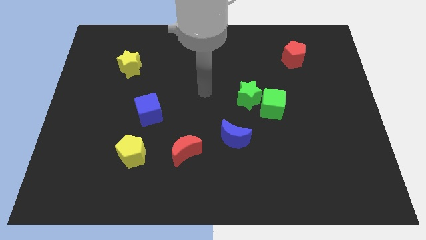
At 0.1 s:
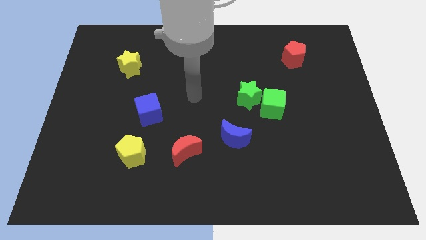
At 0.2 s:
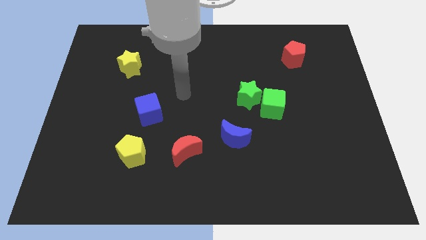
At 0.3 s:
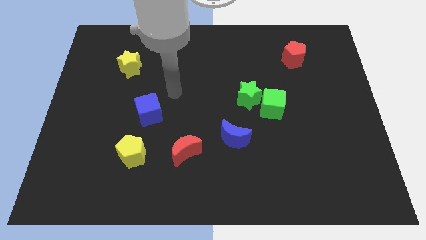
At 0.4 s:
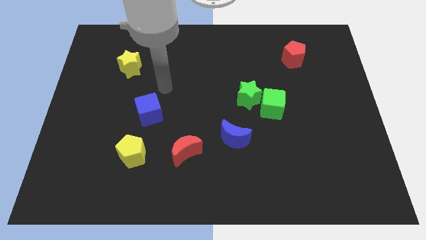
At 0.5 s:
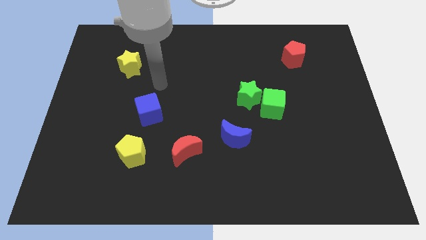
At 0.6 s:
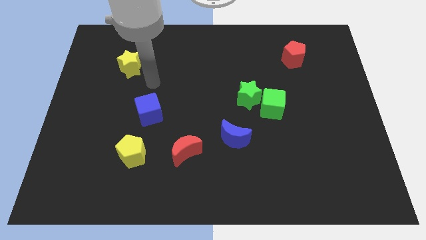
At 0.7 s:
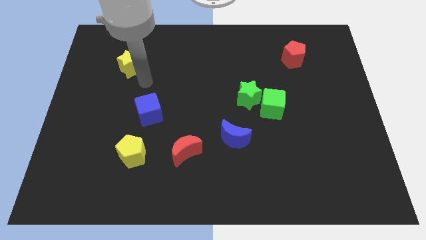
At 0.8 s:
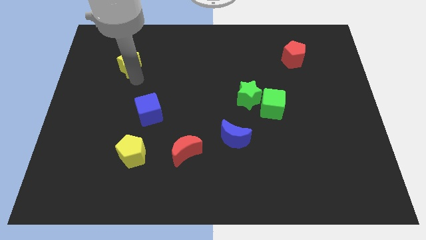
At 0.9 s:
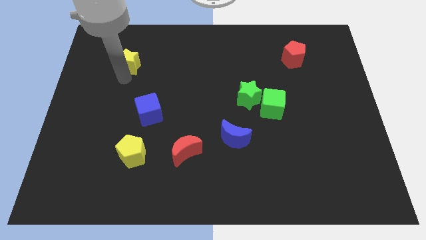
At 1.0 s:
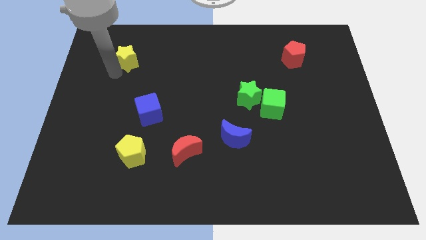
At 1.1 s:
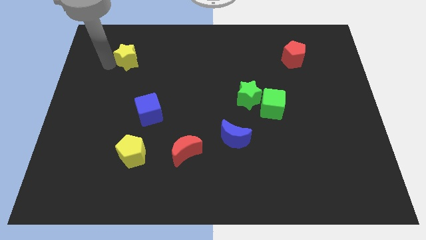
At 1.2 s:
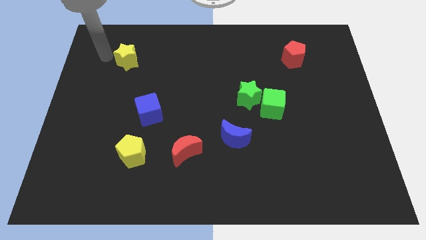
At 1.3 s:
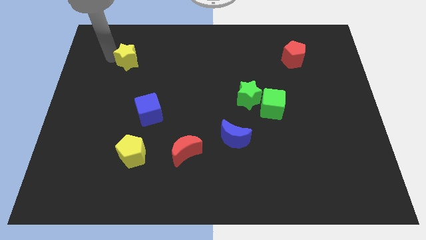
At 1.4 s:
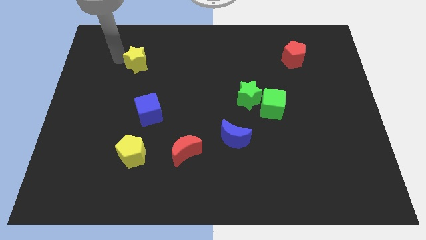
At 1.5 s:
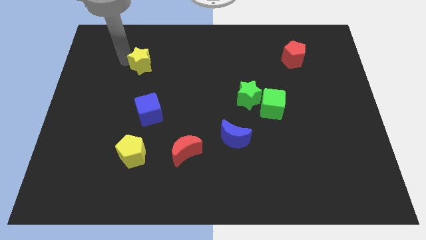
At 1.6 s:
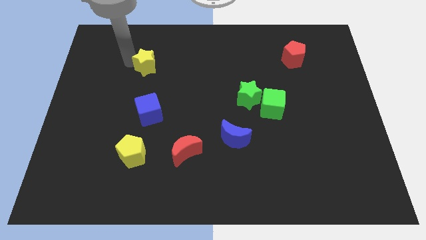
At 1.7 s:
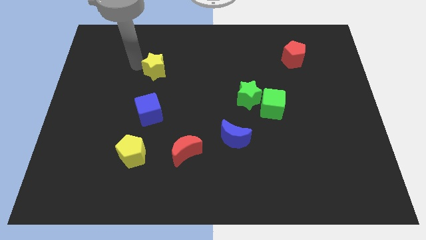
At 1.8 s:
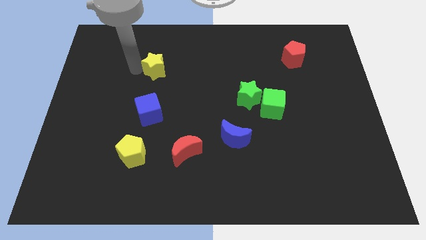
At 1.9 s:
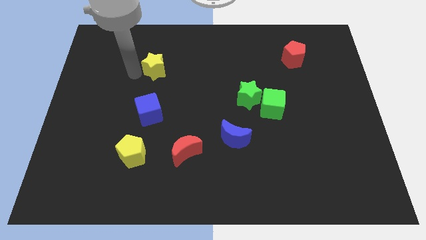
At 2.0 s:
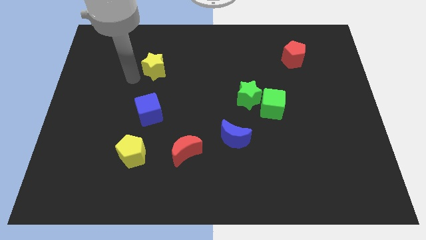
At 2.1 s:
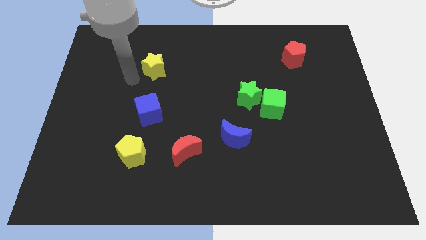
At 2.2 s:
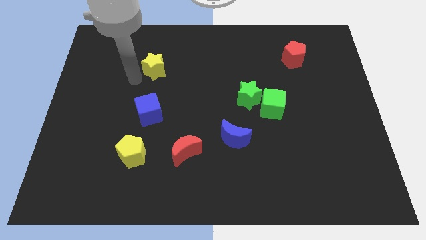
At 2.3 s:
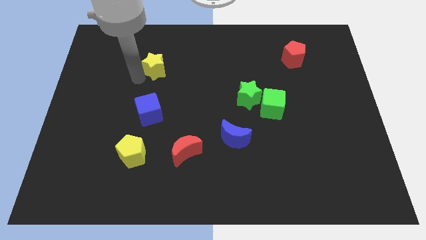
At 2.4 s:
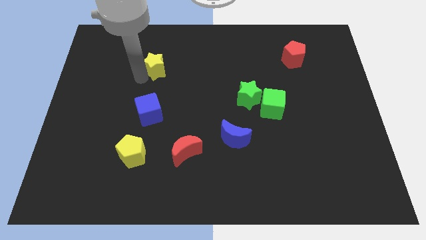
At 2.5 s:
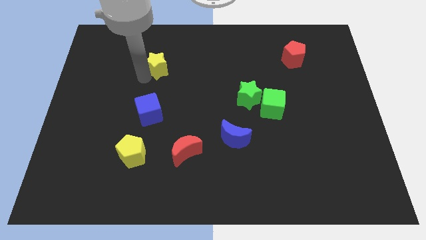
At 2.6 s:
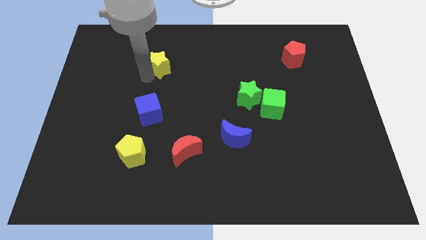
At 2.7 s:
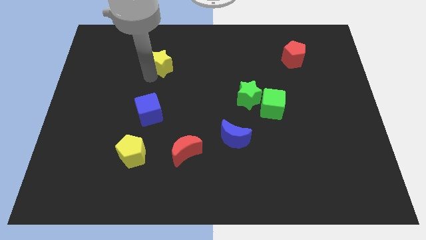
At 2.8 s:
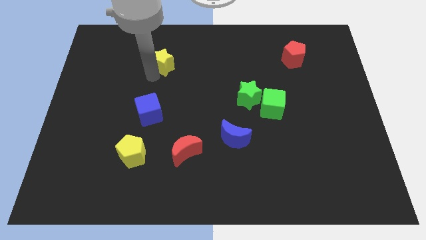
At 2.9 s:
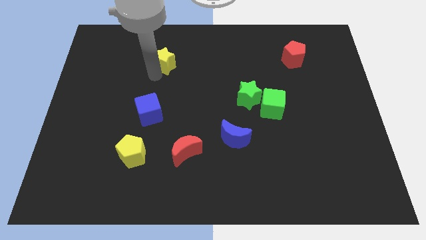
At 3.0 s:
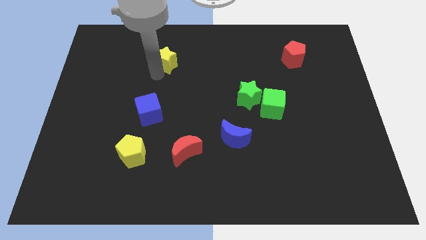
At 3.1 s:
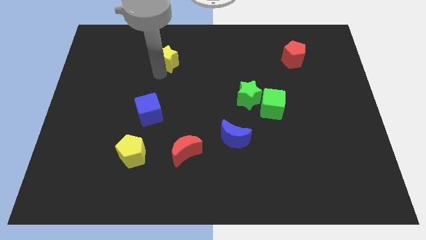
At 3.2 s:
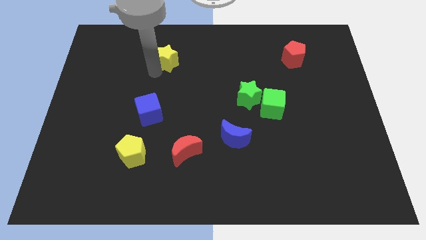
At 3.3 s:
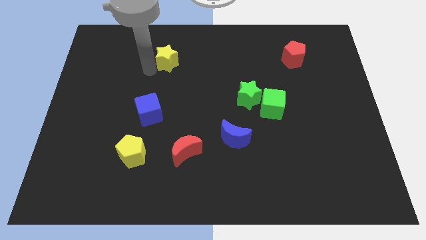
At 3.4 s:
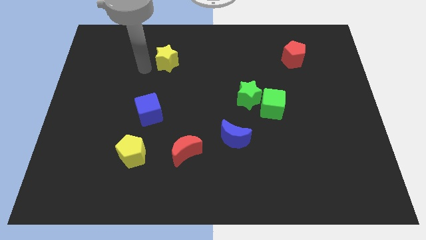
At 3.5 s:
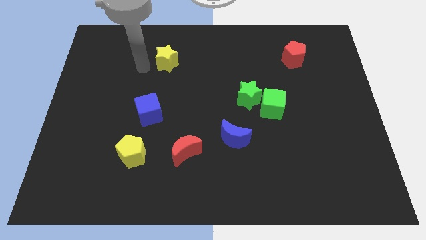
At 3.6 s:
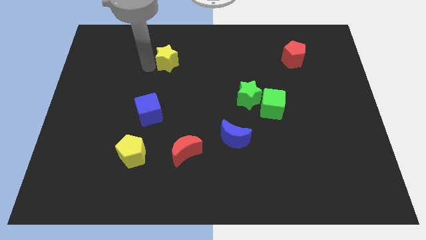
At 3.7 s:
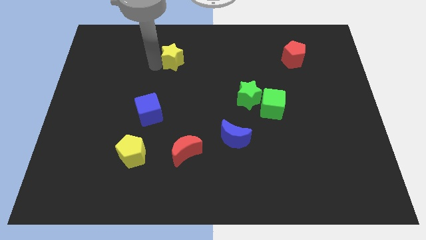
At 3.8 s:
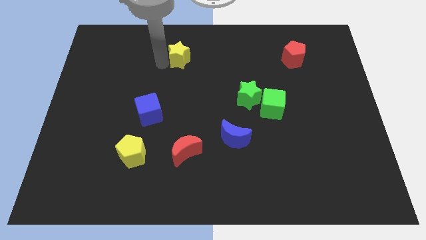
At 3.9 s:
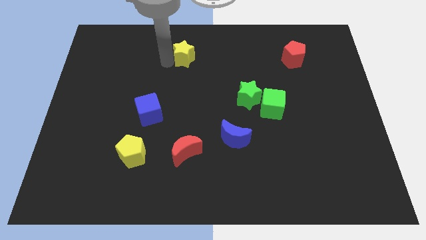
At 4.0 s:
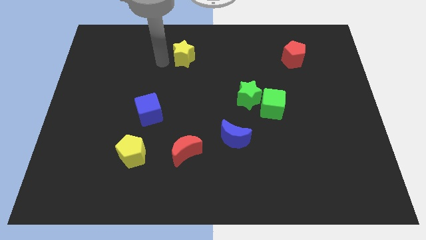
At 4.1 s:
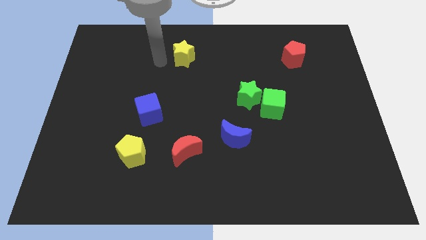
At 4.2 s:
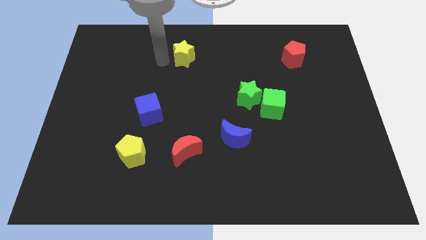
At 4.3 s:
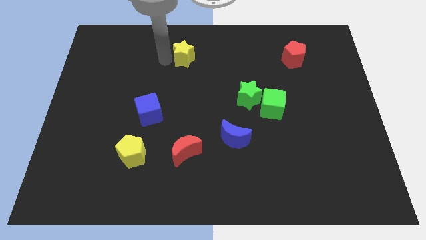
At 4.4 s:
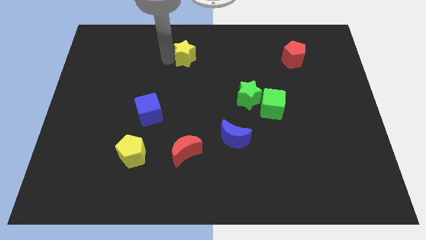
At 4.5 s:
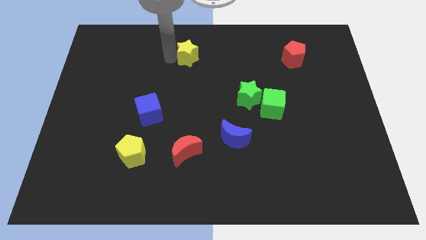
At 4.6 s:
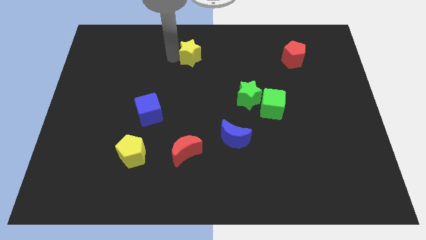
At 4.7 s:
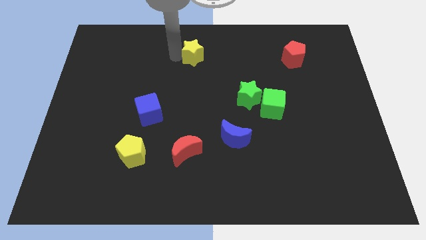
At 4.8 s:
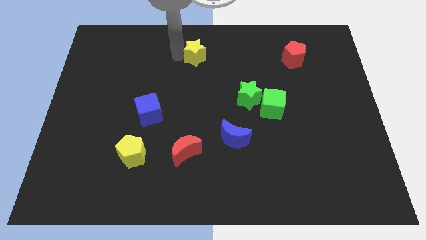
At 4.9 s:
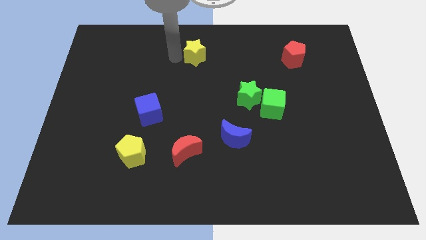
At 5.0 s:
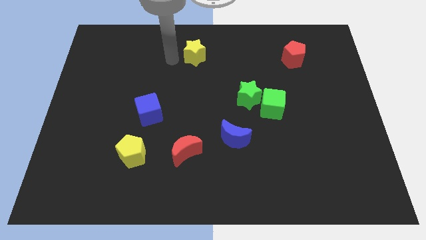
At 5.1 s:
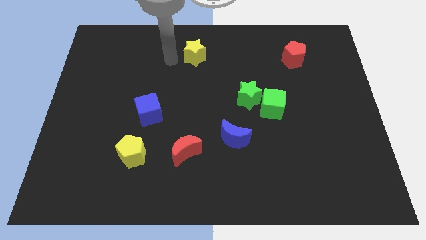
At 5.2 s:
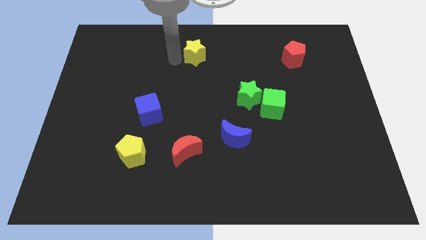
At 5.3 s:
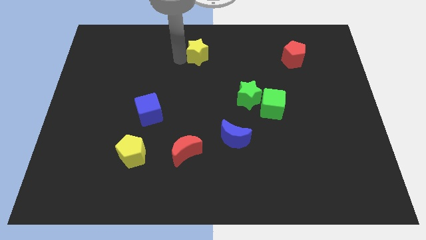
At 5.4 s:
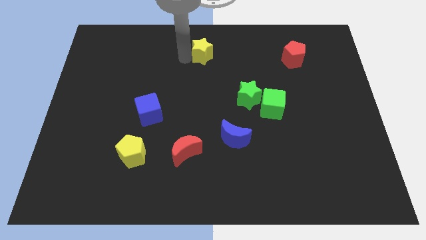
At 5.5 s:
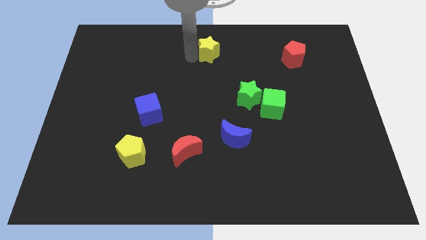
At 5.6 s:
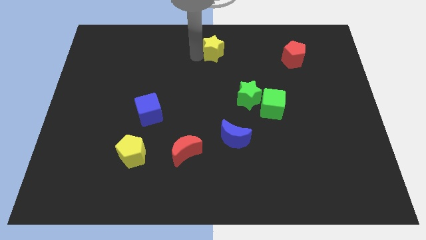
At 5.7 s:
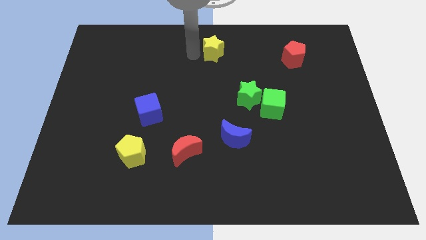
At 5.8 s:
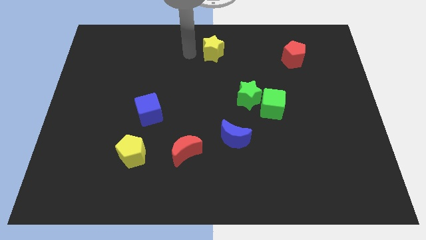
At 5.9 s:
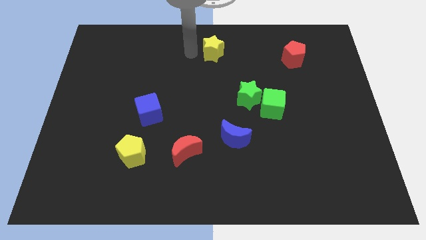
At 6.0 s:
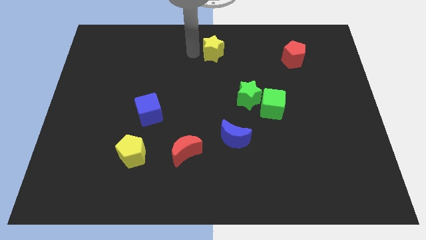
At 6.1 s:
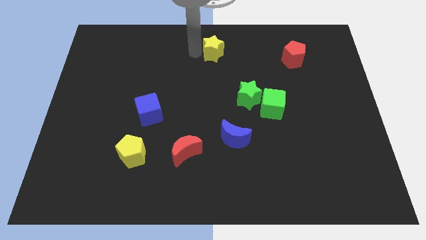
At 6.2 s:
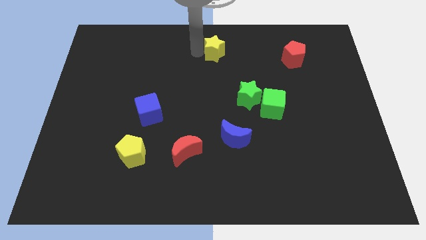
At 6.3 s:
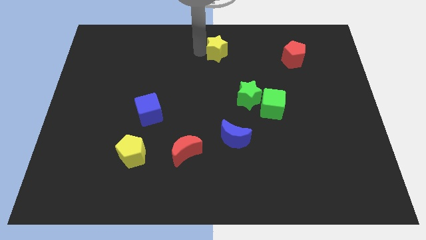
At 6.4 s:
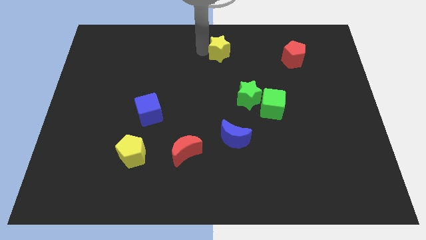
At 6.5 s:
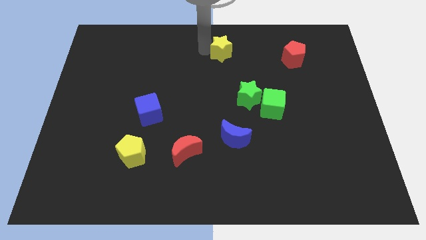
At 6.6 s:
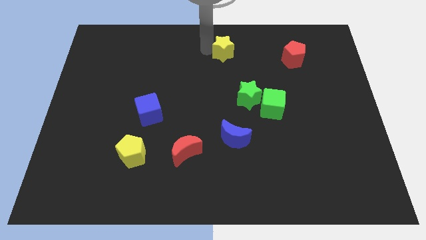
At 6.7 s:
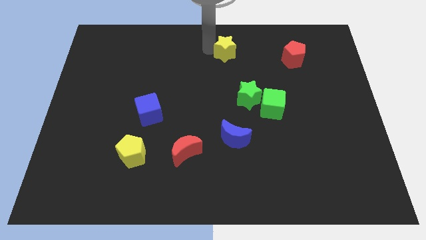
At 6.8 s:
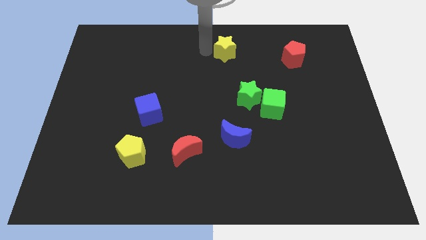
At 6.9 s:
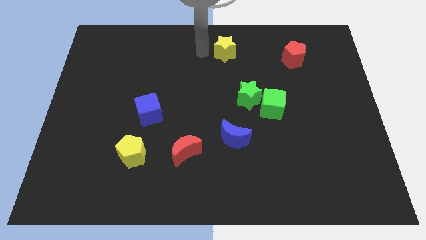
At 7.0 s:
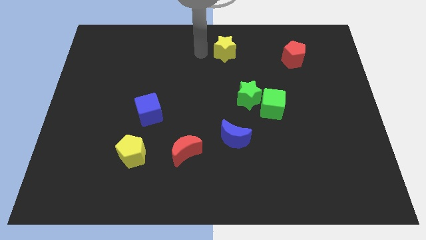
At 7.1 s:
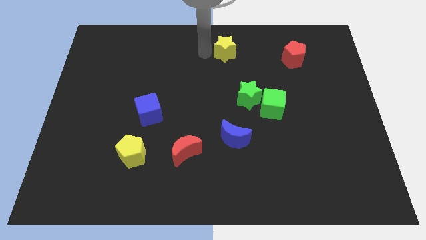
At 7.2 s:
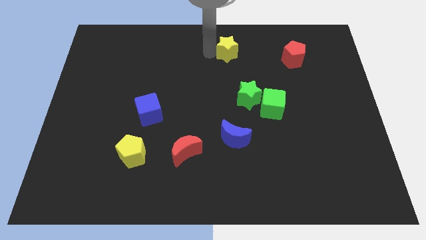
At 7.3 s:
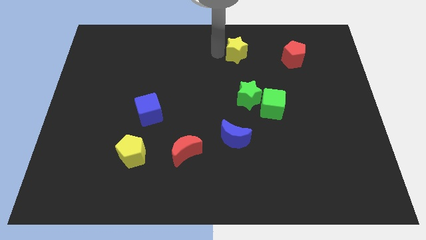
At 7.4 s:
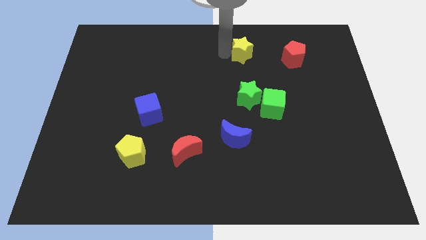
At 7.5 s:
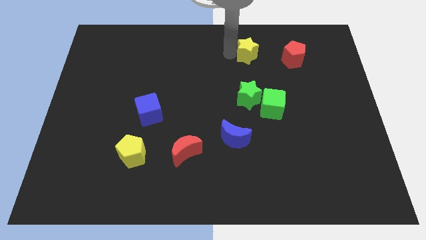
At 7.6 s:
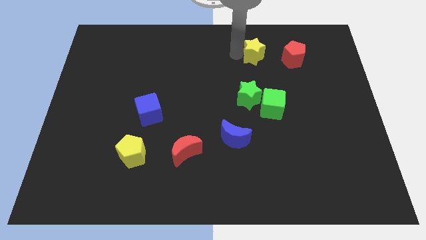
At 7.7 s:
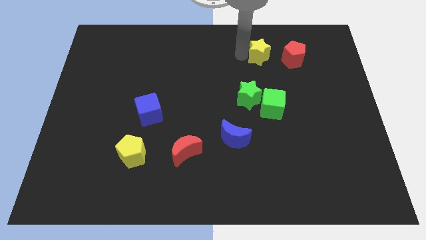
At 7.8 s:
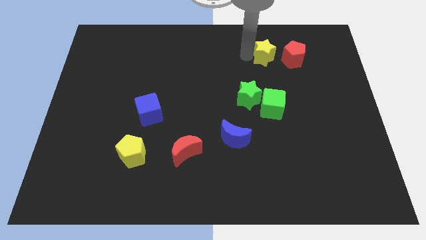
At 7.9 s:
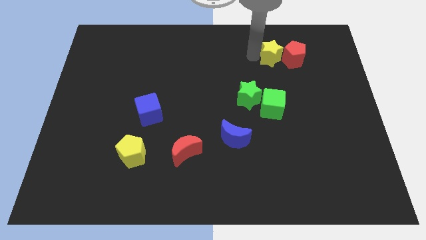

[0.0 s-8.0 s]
slide the yellow star to the red pentagon
